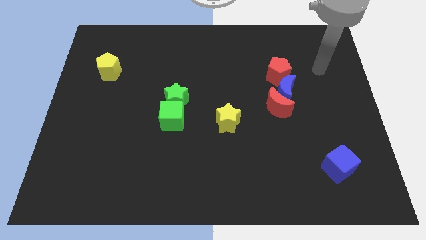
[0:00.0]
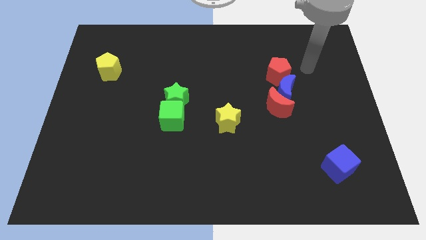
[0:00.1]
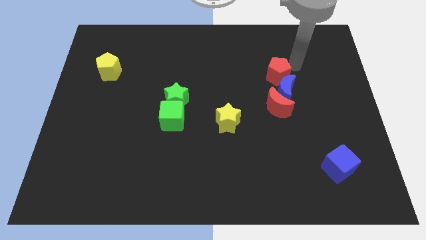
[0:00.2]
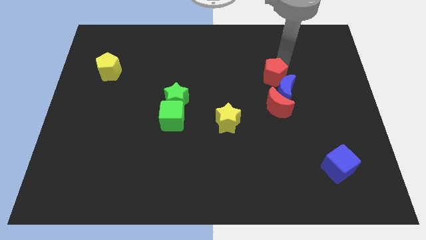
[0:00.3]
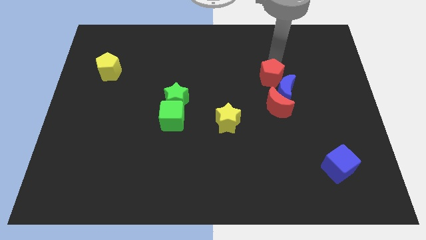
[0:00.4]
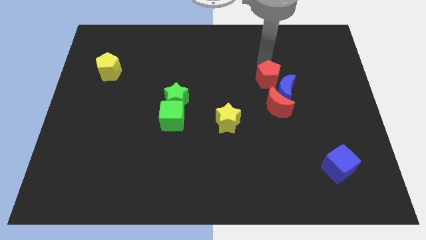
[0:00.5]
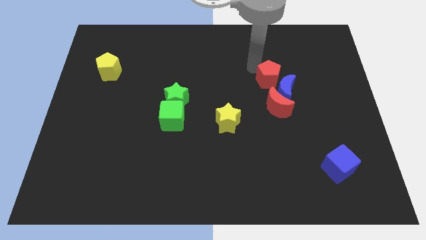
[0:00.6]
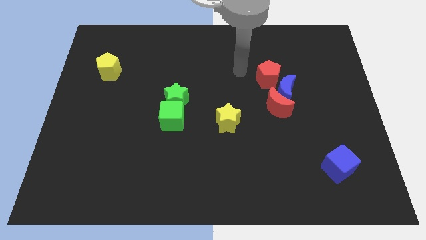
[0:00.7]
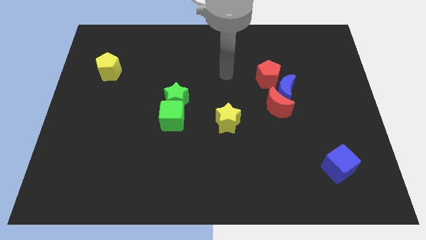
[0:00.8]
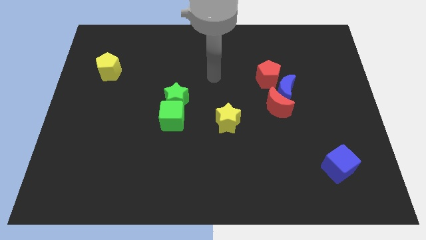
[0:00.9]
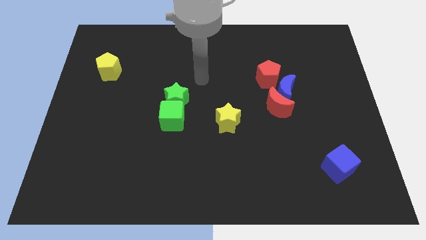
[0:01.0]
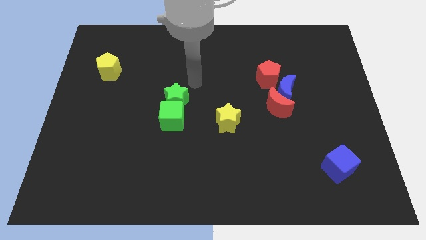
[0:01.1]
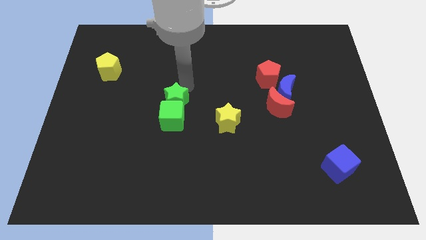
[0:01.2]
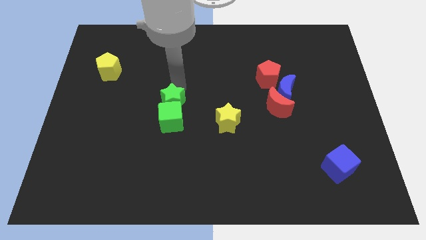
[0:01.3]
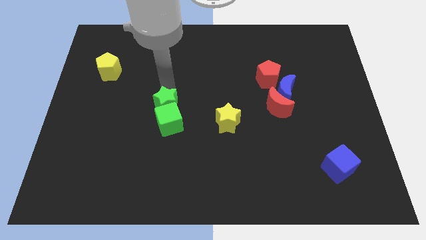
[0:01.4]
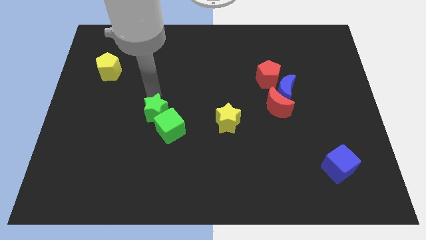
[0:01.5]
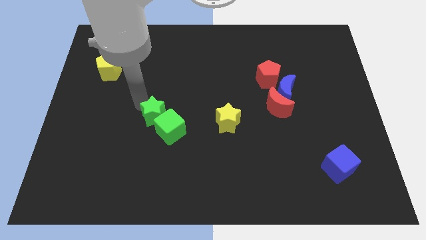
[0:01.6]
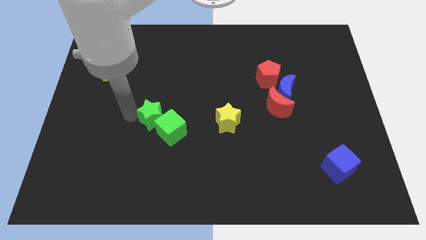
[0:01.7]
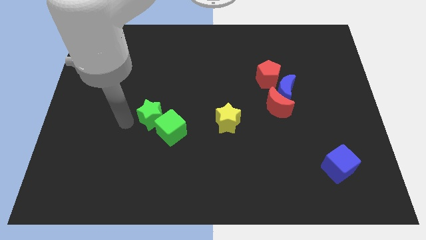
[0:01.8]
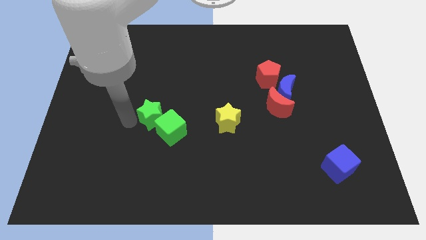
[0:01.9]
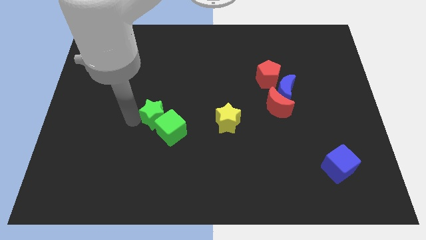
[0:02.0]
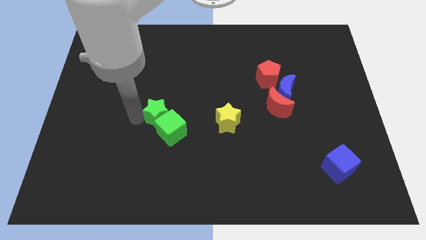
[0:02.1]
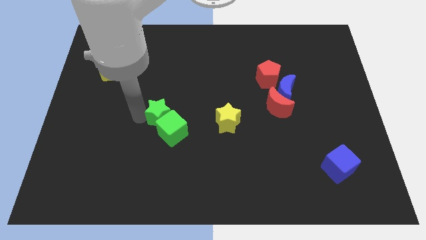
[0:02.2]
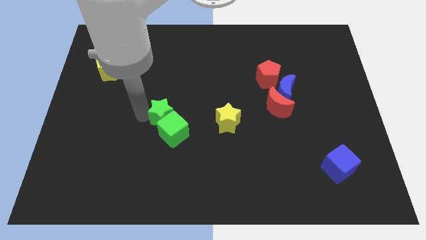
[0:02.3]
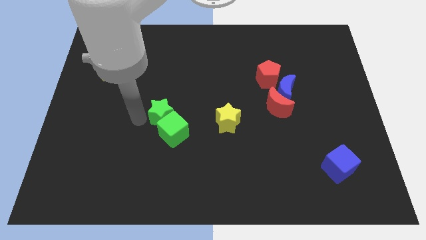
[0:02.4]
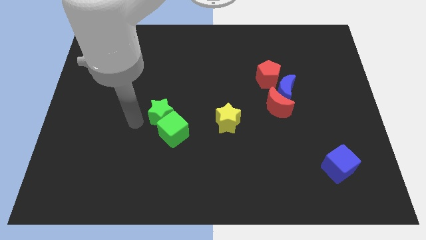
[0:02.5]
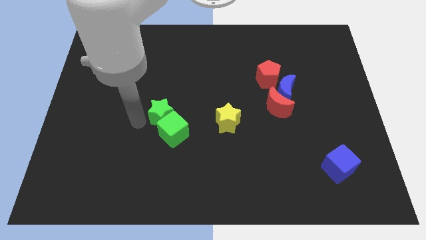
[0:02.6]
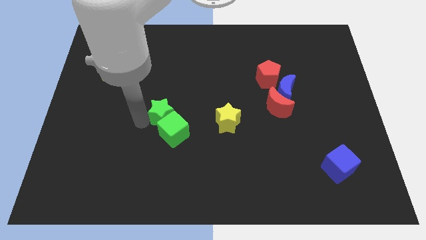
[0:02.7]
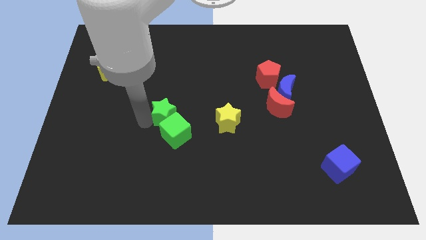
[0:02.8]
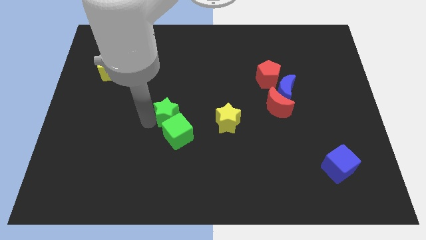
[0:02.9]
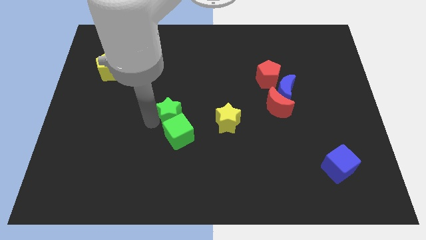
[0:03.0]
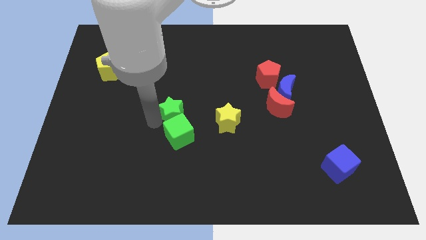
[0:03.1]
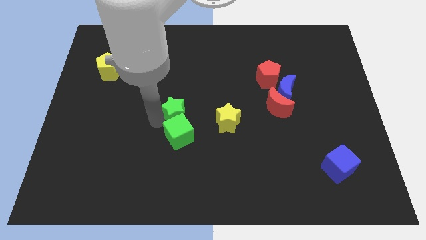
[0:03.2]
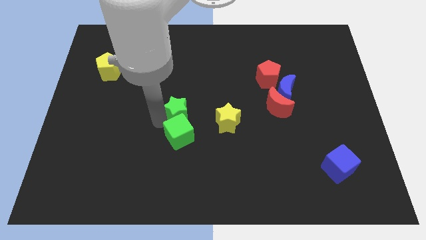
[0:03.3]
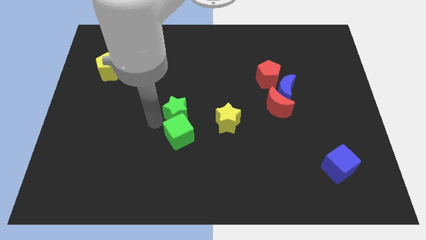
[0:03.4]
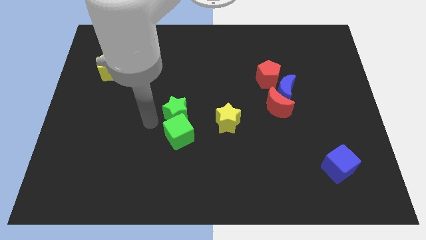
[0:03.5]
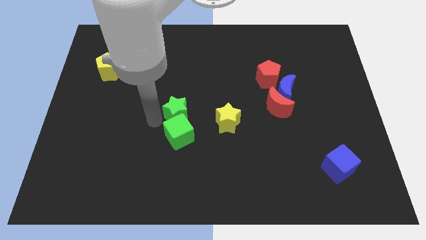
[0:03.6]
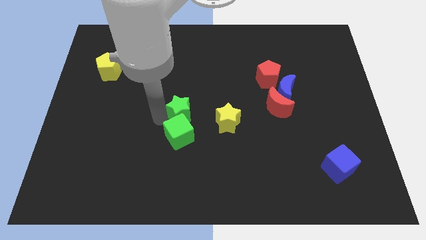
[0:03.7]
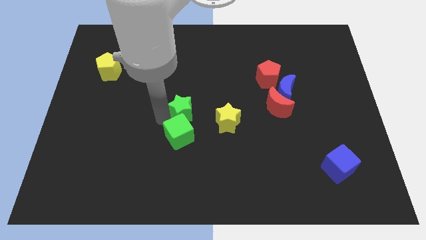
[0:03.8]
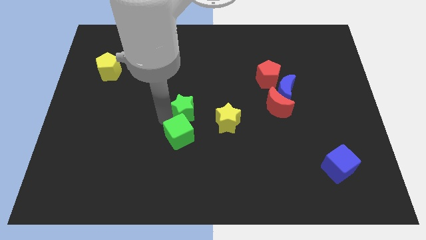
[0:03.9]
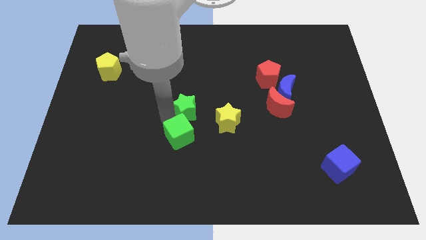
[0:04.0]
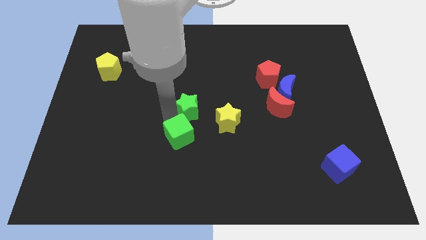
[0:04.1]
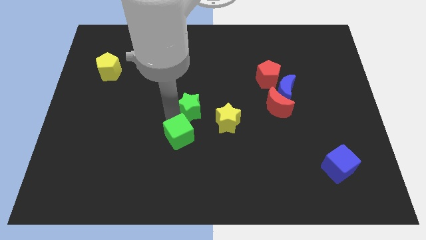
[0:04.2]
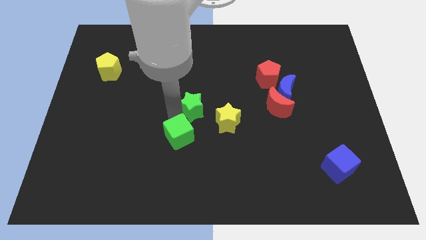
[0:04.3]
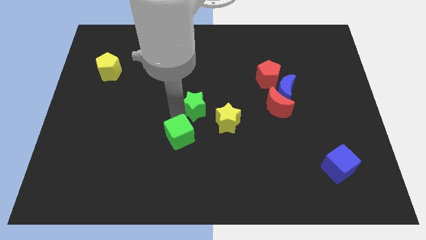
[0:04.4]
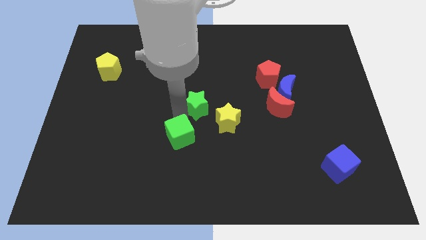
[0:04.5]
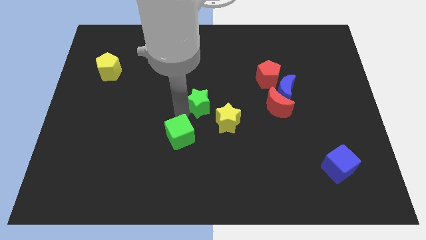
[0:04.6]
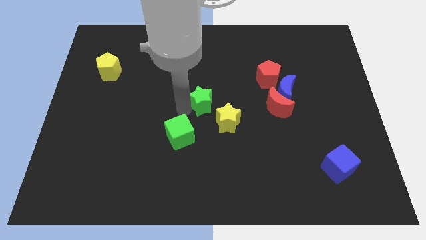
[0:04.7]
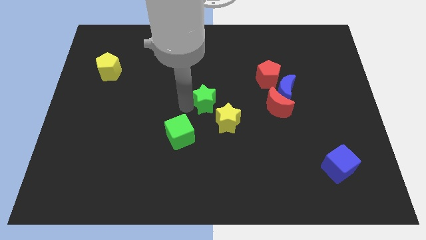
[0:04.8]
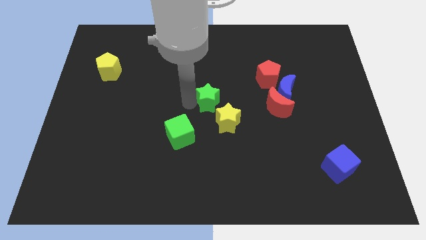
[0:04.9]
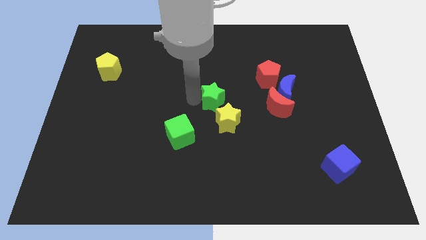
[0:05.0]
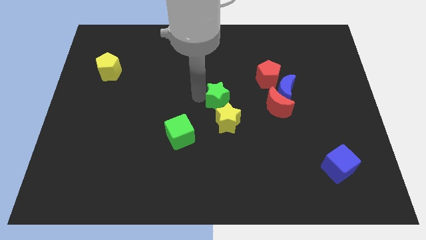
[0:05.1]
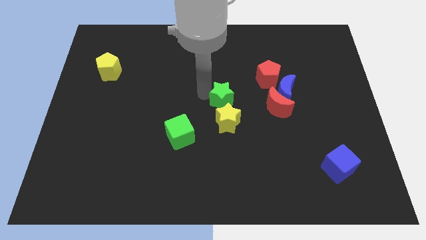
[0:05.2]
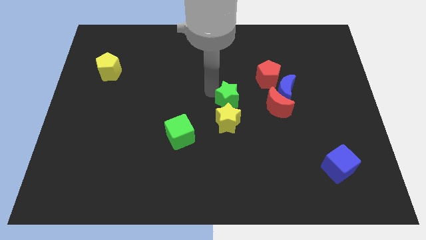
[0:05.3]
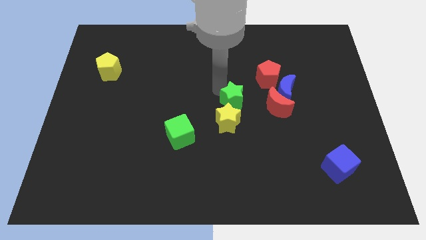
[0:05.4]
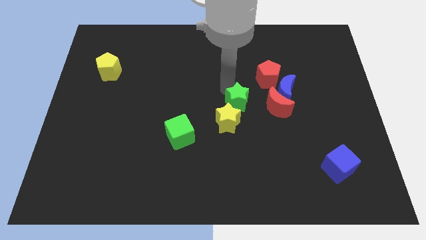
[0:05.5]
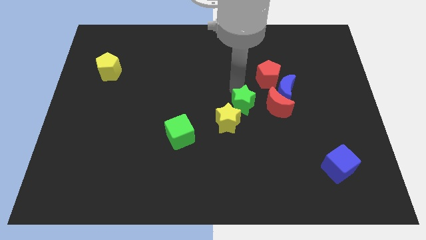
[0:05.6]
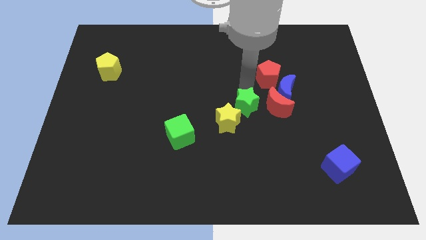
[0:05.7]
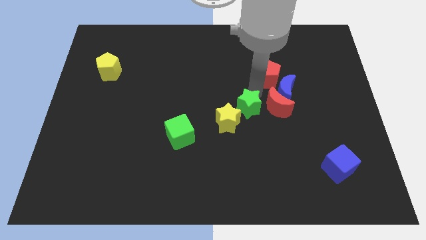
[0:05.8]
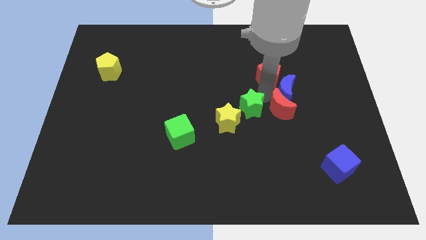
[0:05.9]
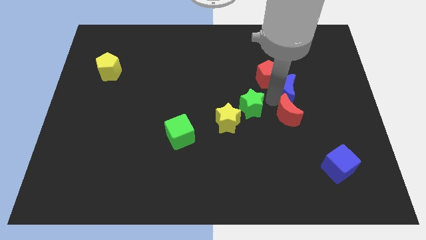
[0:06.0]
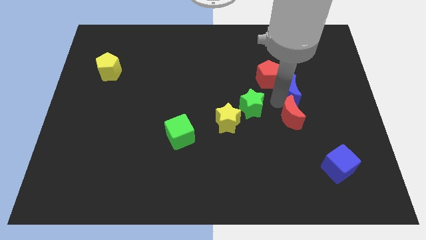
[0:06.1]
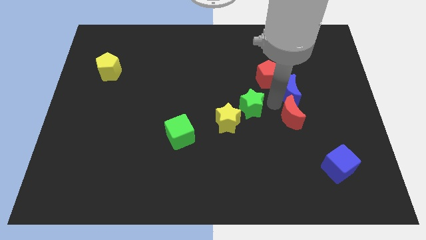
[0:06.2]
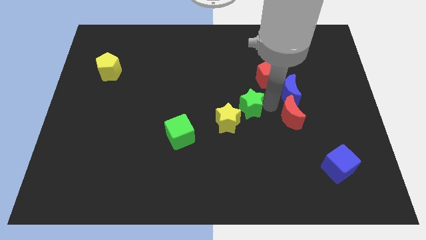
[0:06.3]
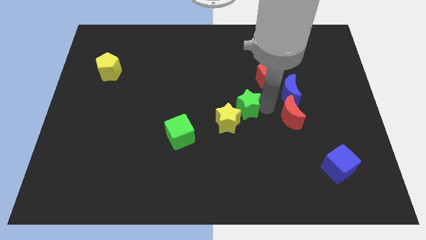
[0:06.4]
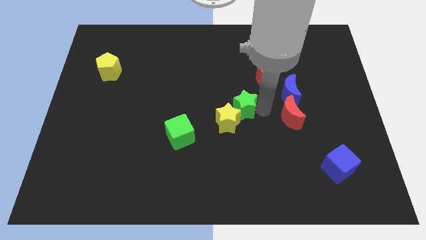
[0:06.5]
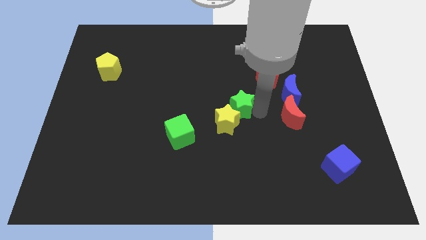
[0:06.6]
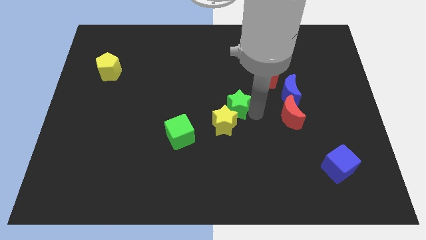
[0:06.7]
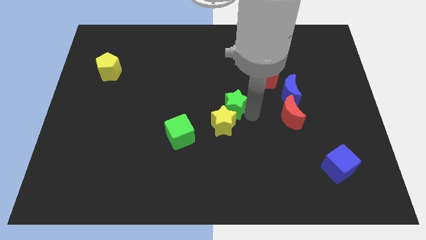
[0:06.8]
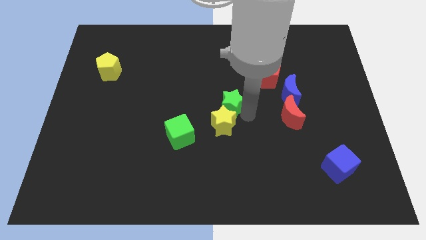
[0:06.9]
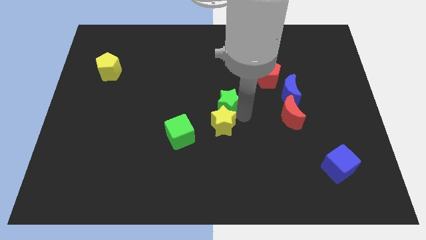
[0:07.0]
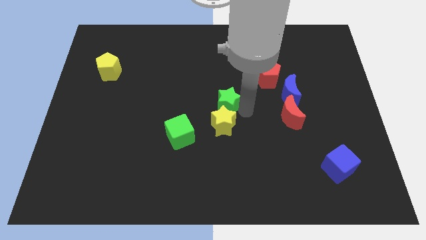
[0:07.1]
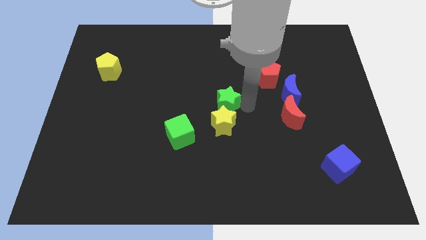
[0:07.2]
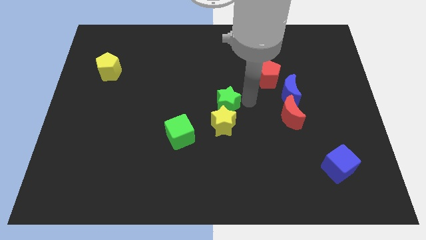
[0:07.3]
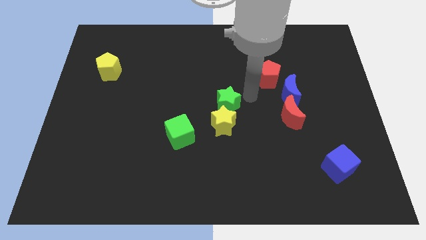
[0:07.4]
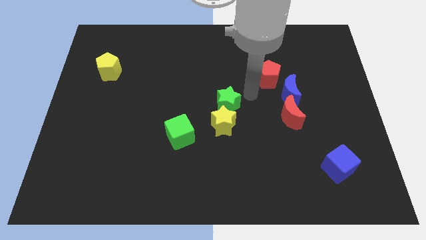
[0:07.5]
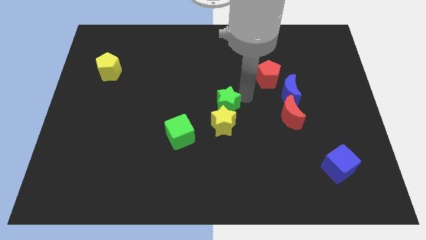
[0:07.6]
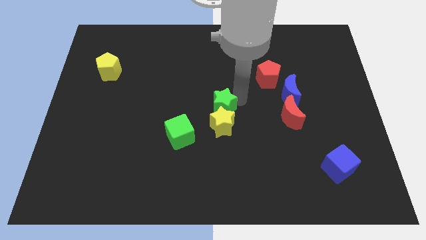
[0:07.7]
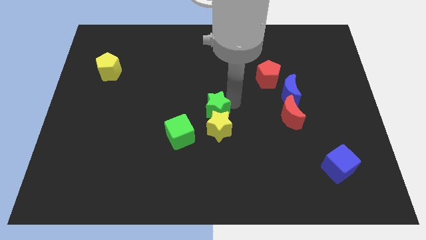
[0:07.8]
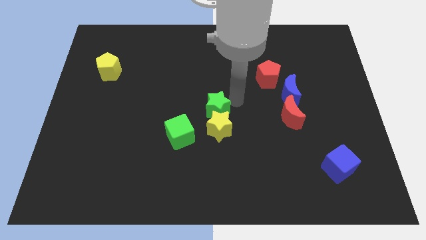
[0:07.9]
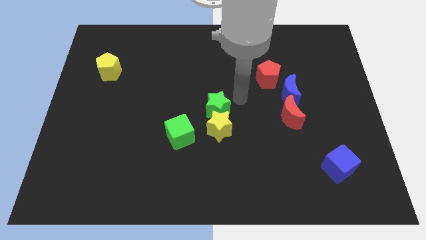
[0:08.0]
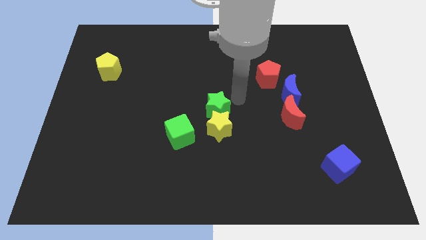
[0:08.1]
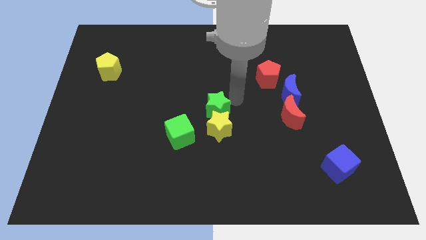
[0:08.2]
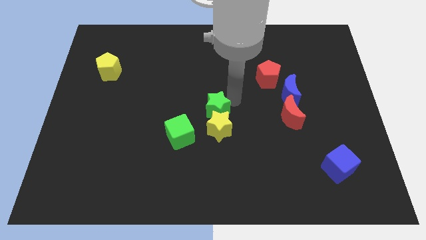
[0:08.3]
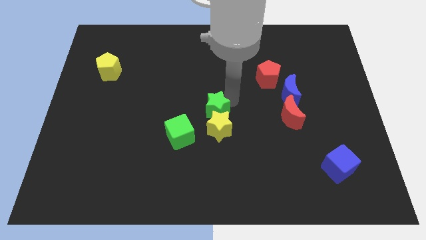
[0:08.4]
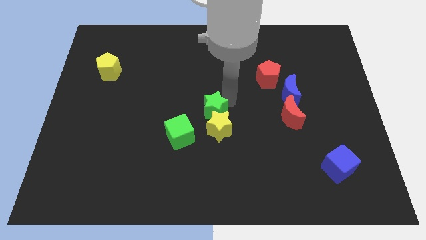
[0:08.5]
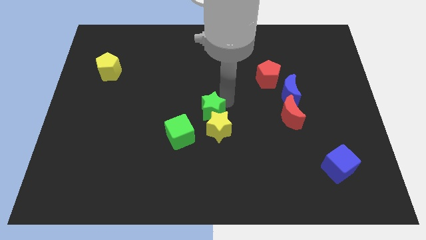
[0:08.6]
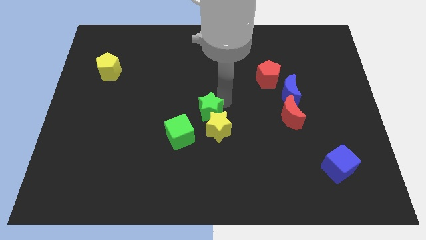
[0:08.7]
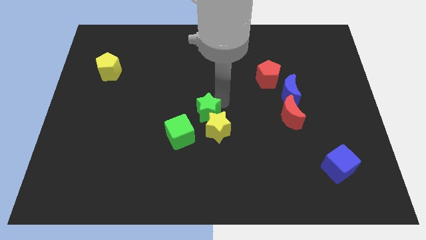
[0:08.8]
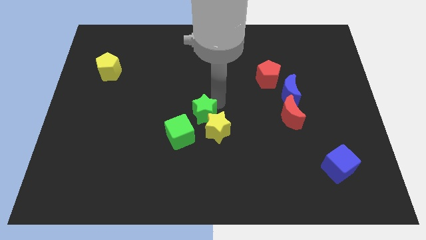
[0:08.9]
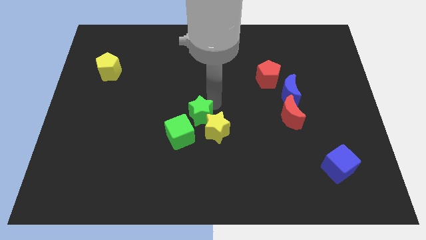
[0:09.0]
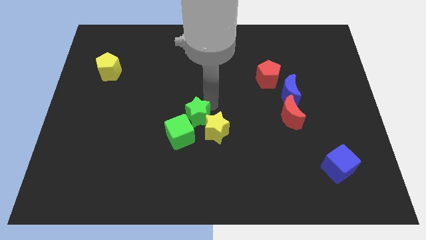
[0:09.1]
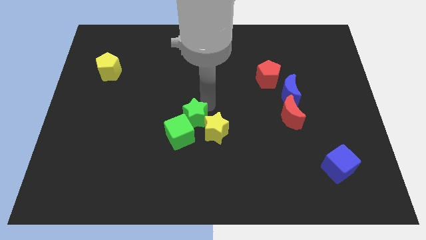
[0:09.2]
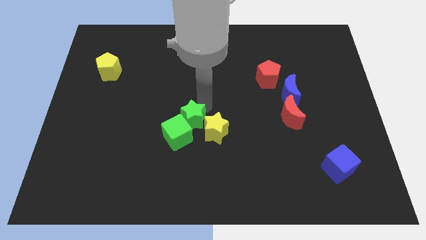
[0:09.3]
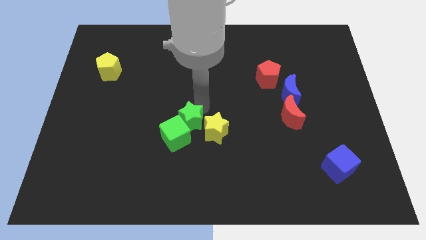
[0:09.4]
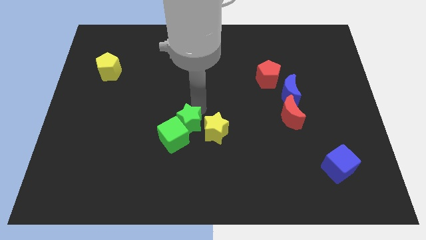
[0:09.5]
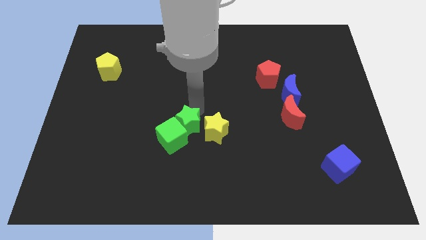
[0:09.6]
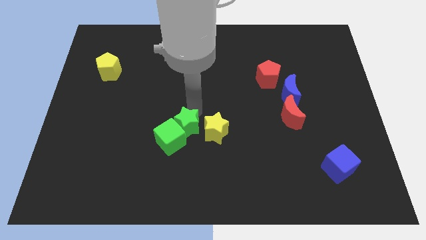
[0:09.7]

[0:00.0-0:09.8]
slide the green star a little bit down
